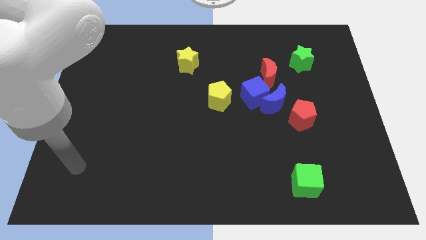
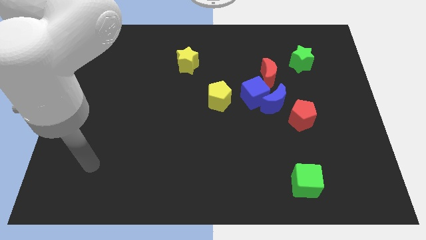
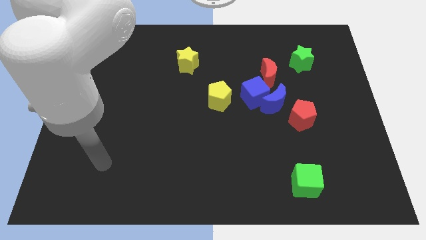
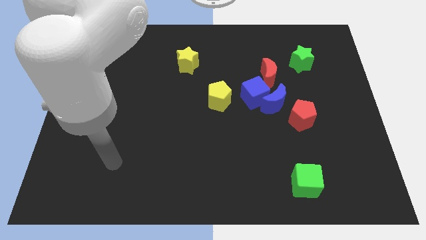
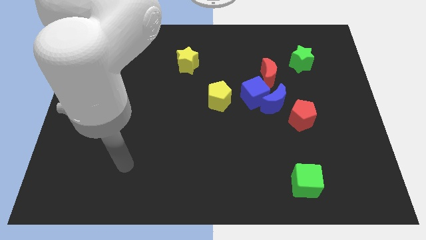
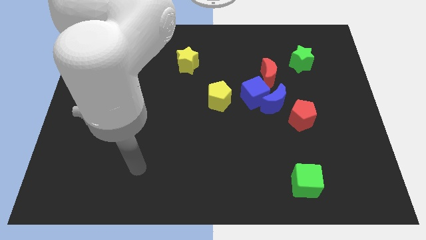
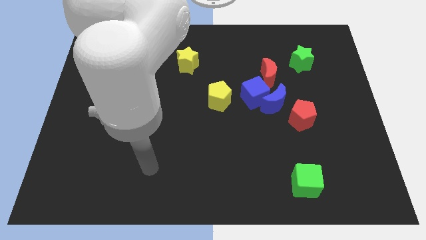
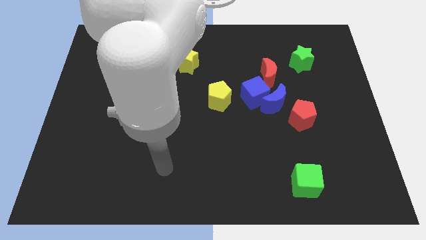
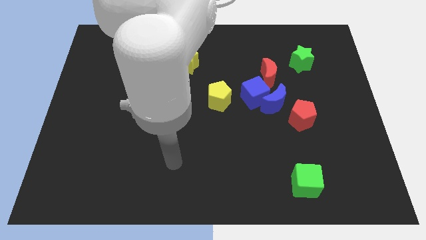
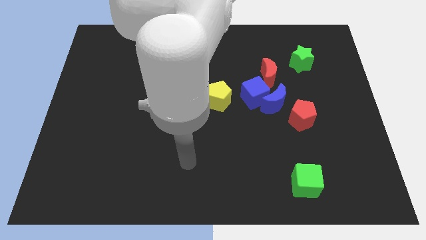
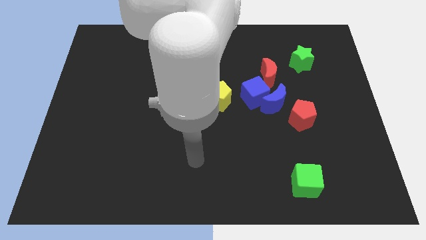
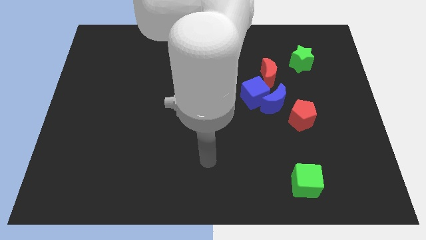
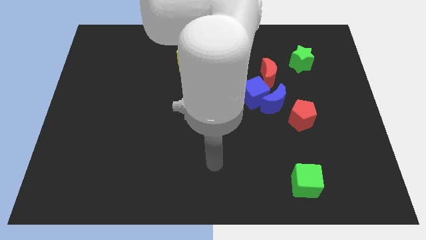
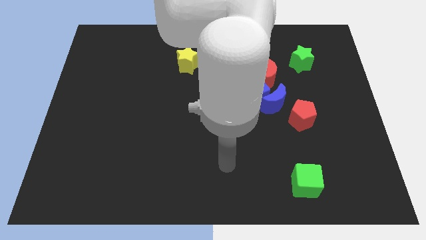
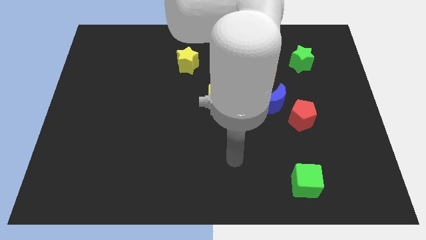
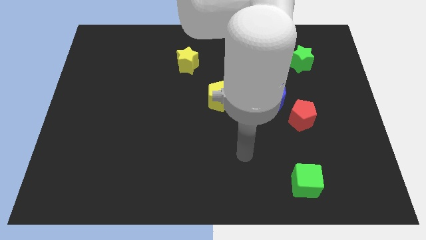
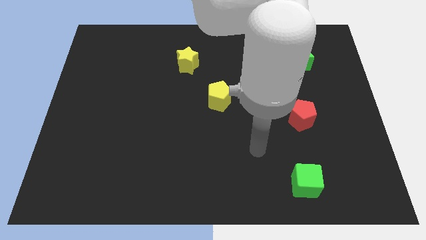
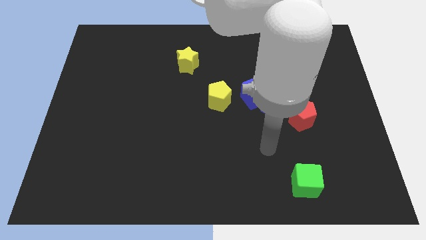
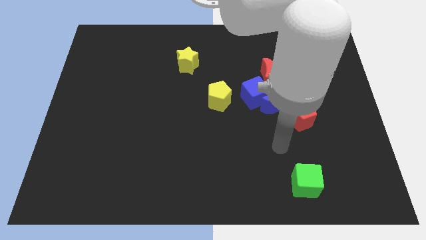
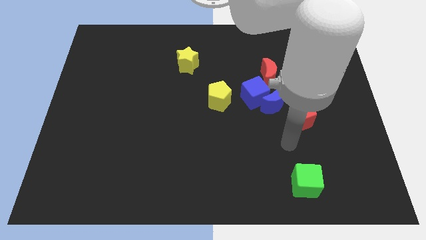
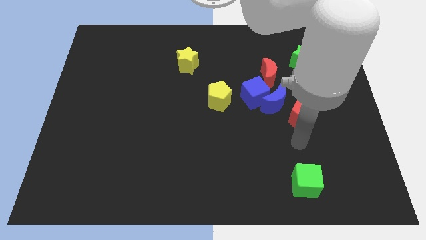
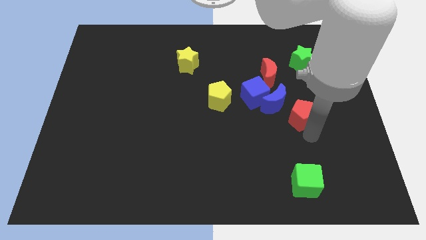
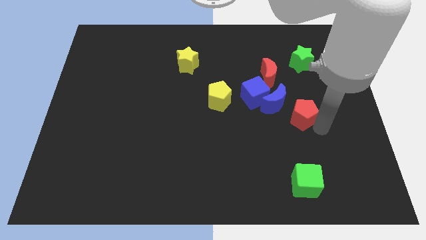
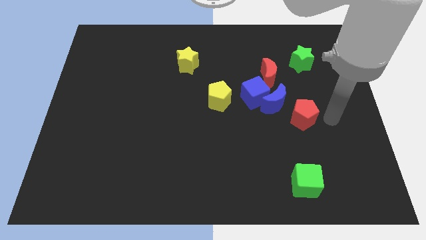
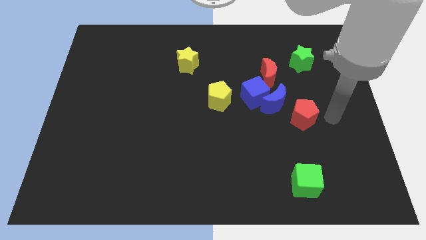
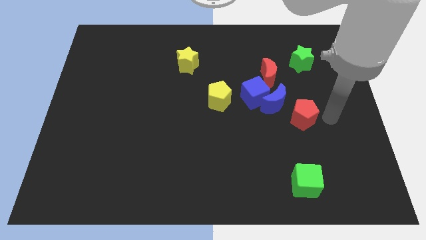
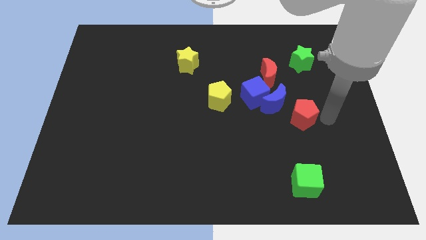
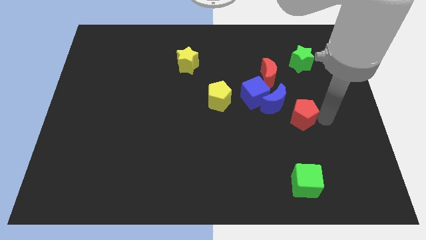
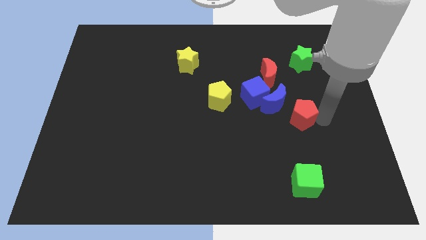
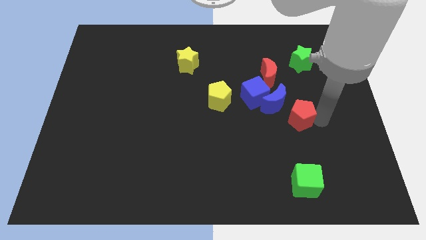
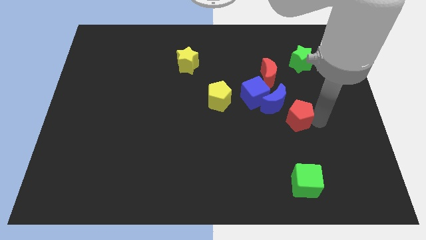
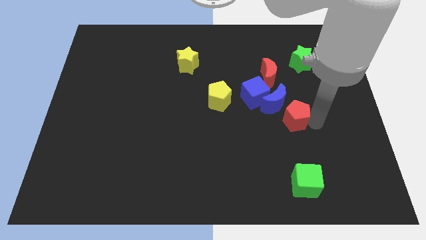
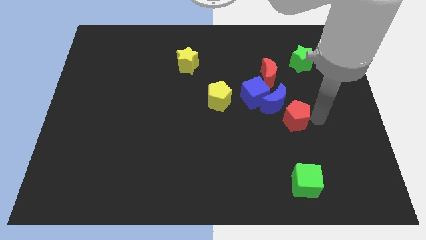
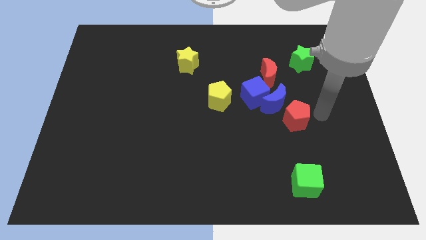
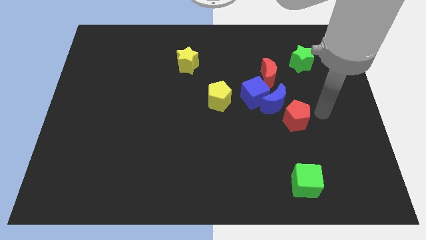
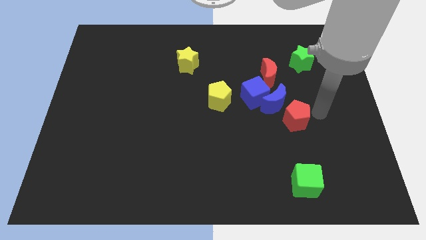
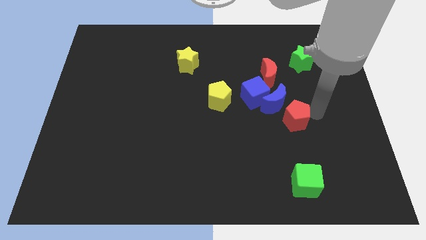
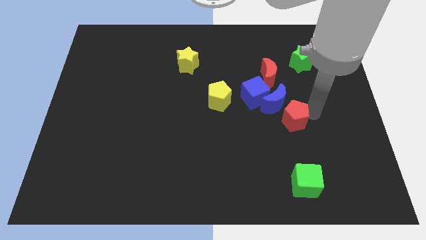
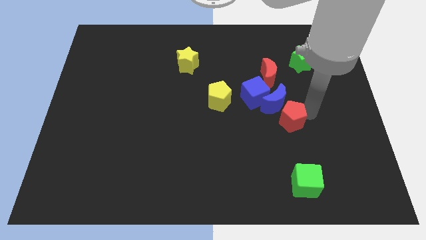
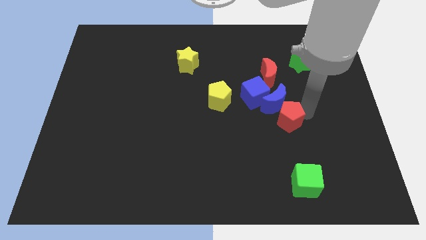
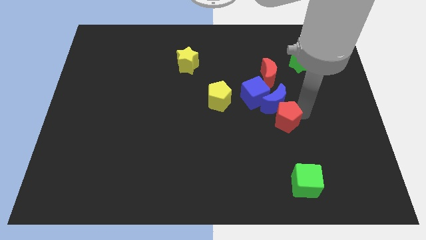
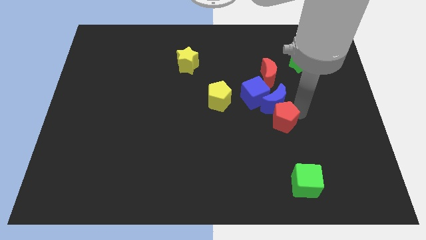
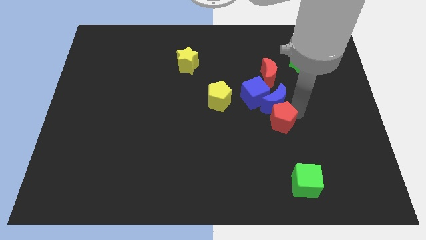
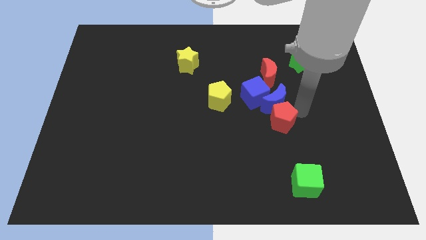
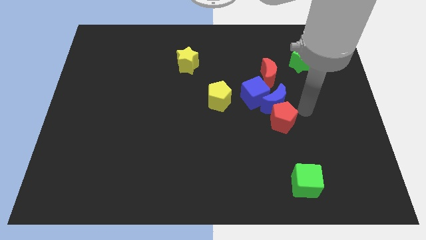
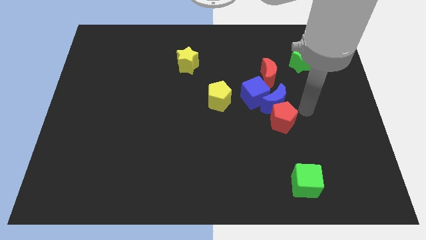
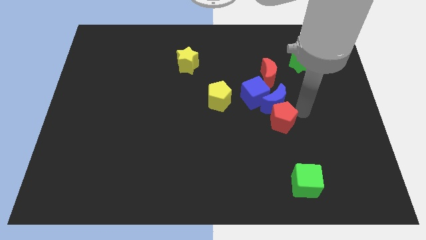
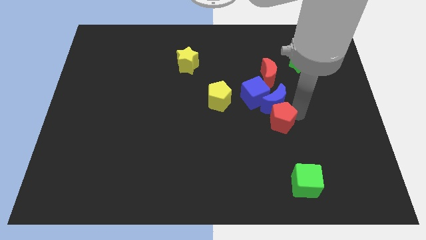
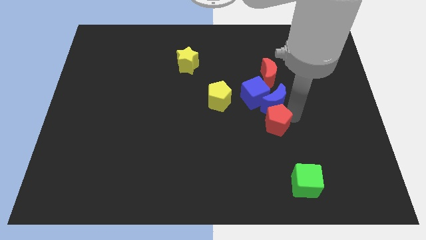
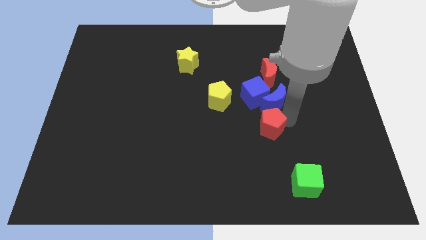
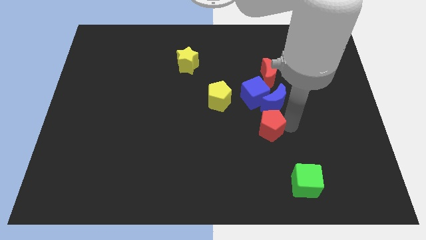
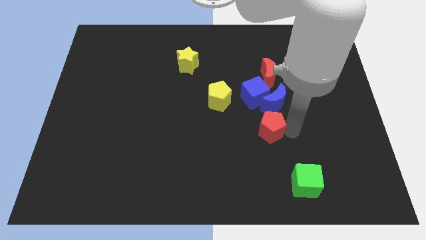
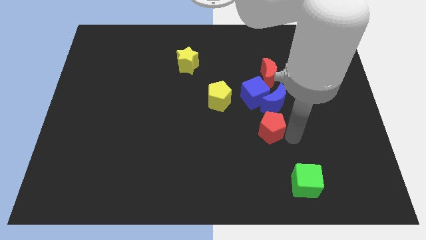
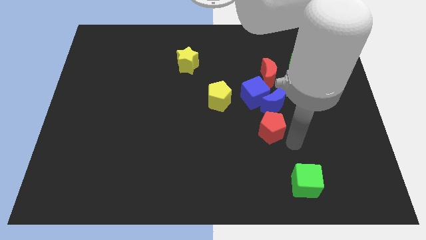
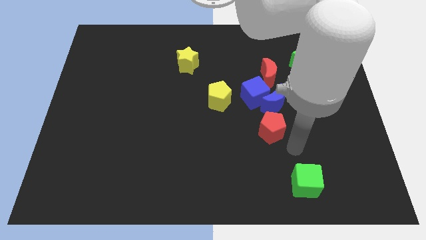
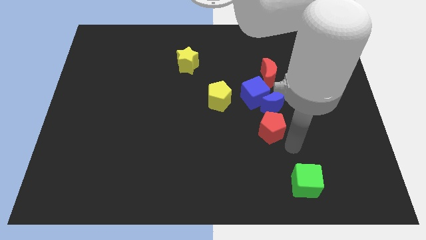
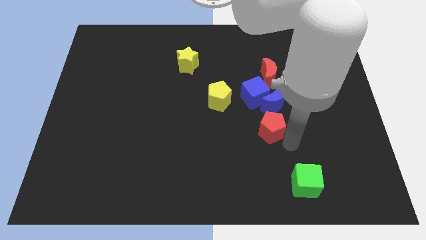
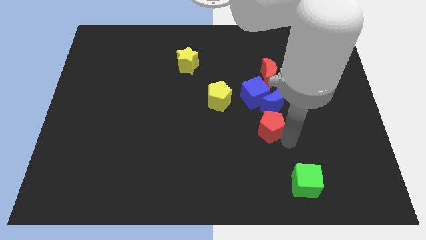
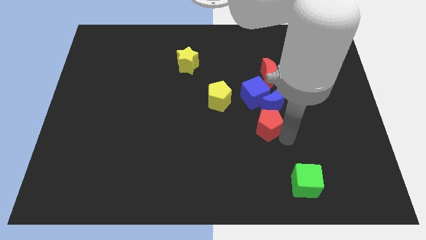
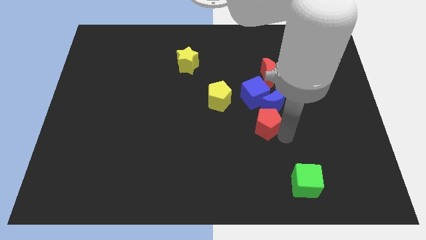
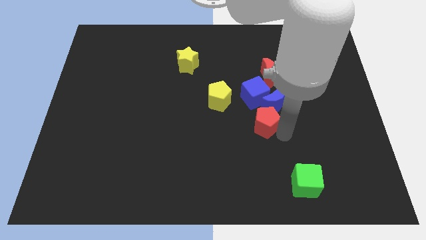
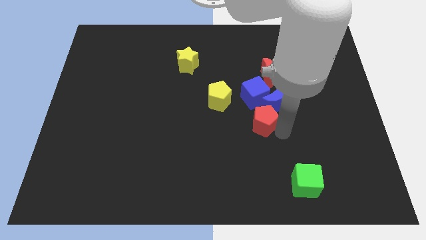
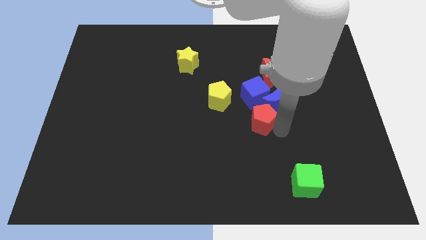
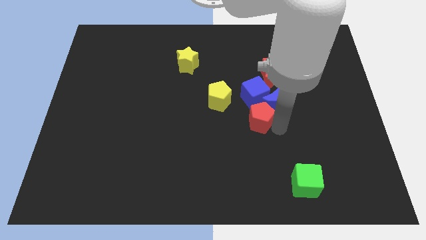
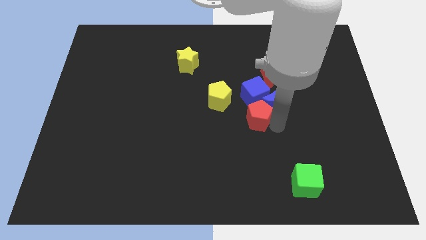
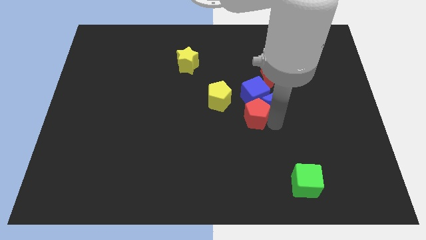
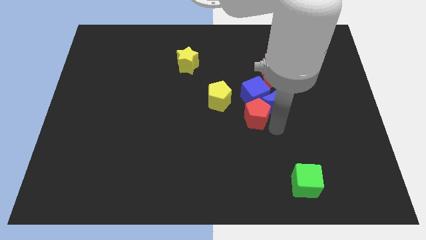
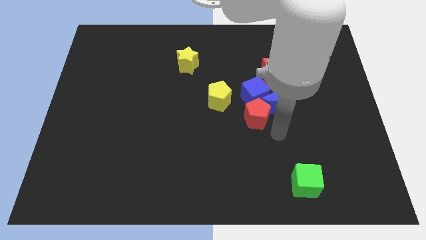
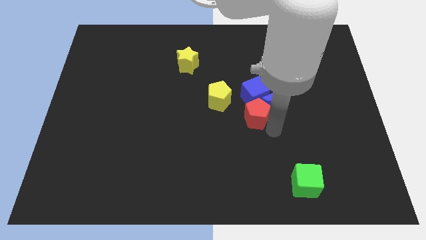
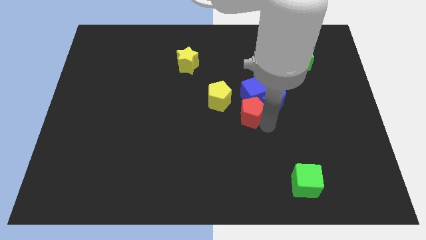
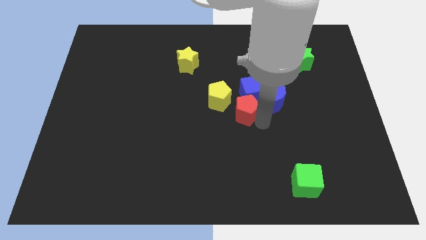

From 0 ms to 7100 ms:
slightly push the red pentagon up and left diagonally

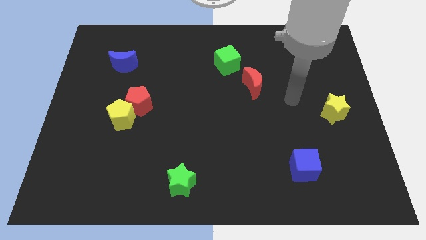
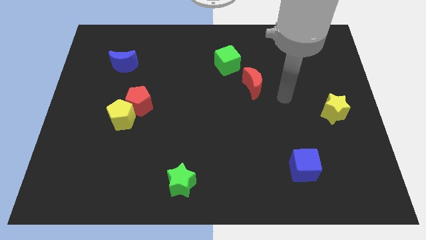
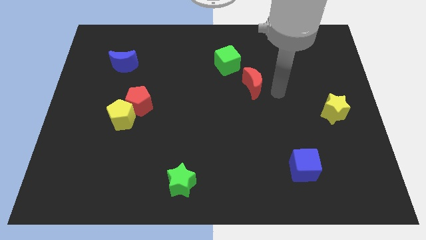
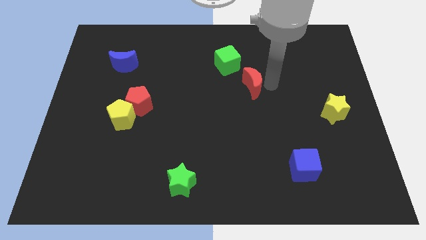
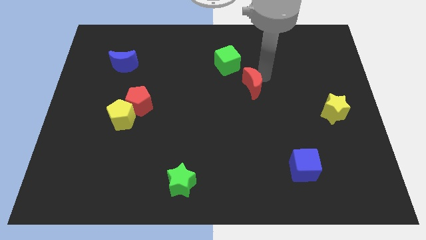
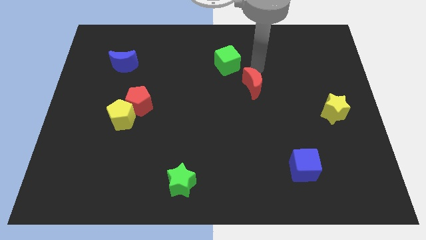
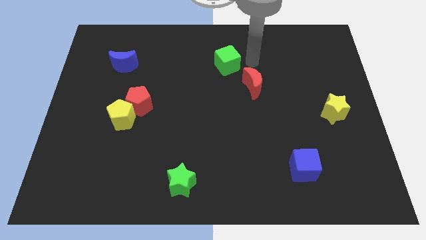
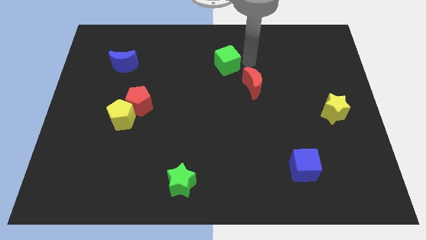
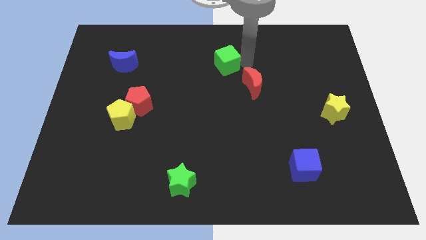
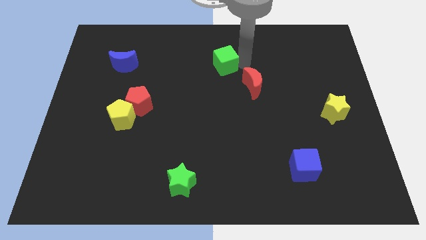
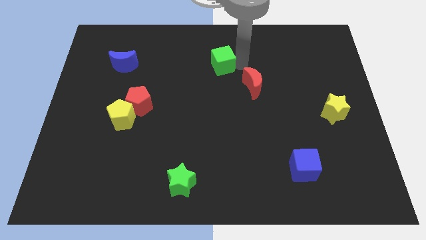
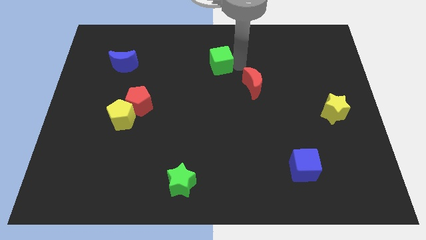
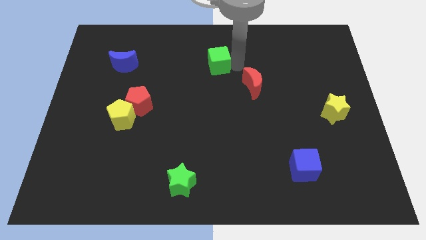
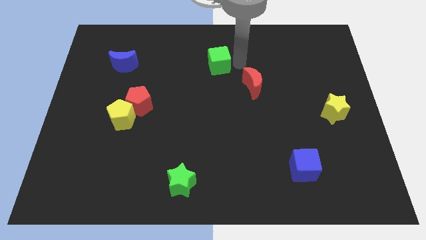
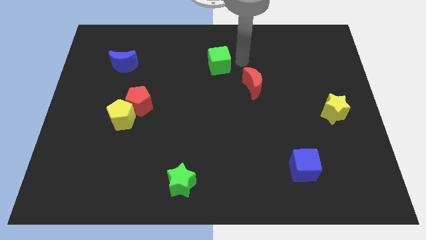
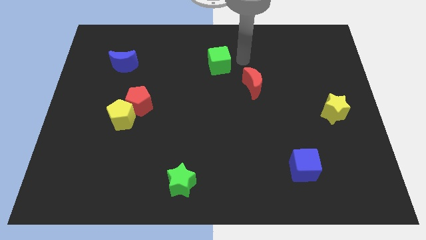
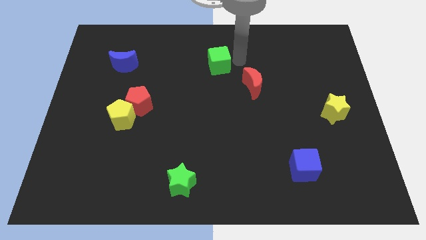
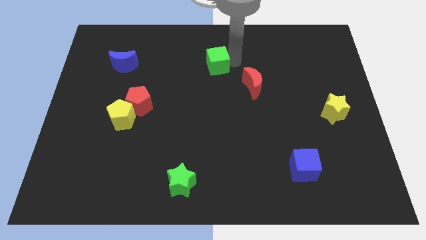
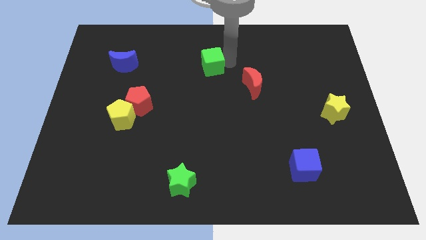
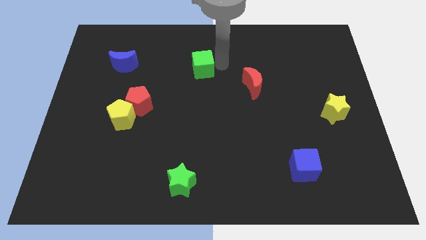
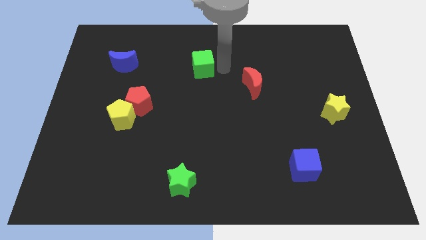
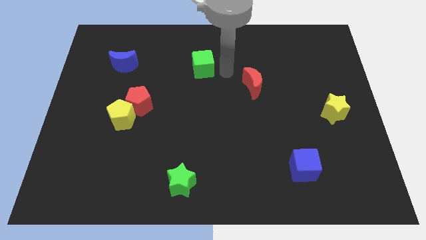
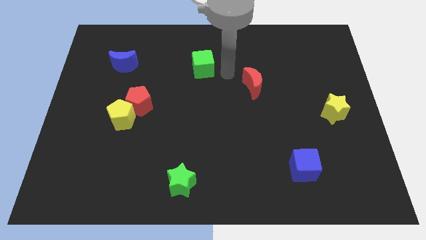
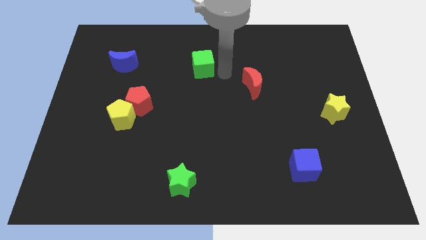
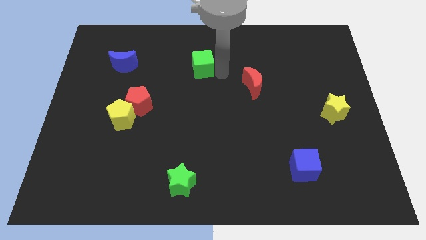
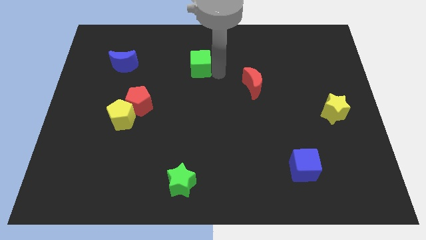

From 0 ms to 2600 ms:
slightly push the green cube left
